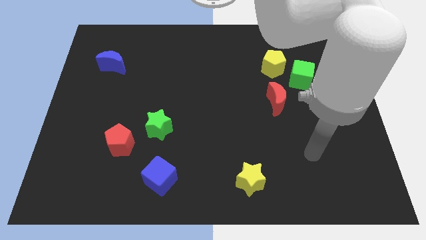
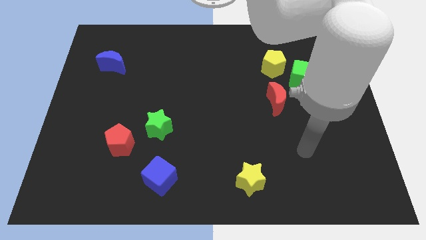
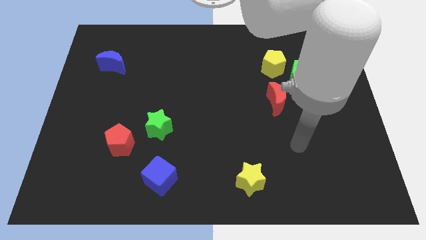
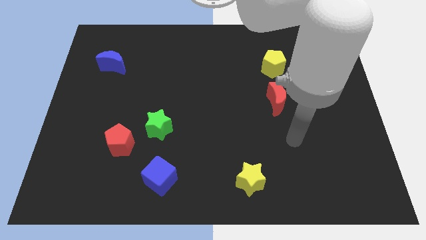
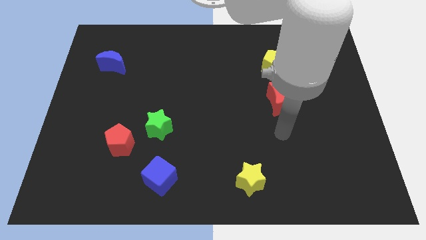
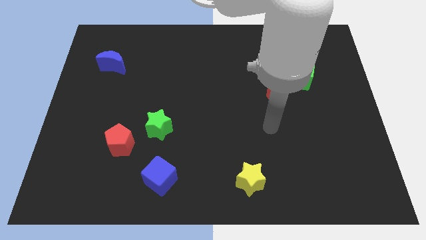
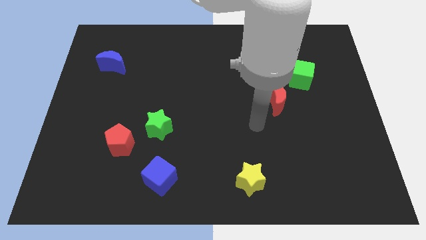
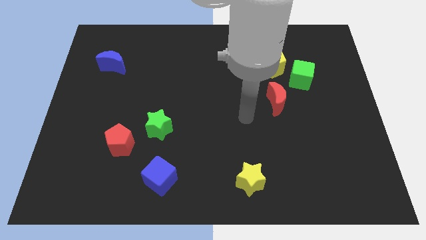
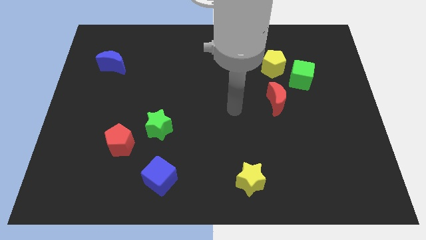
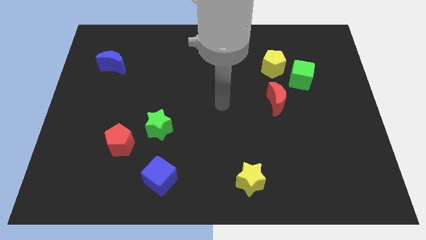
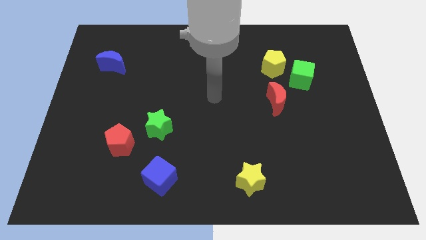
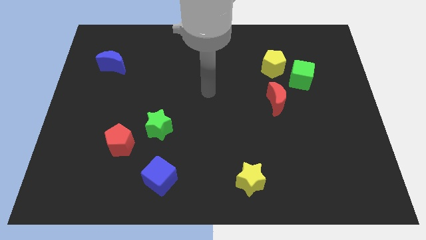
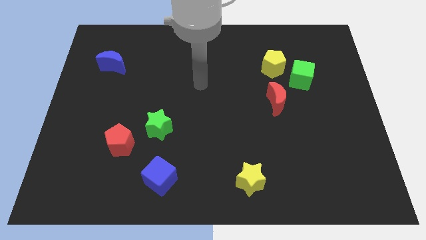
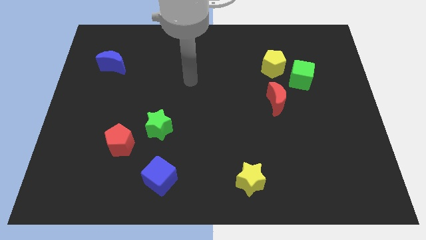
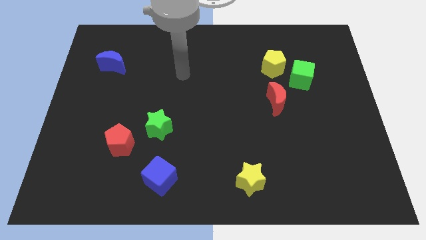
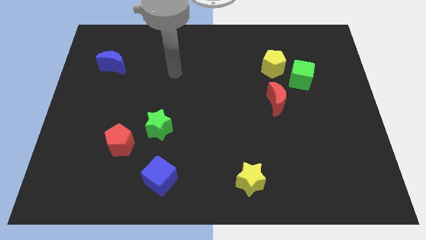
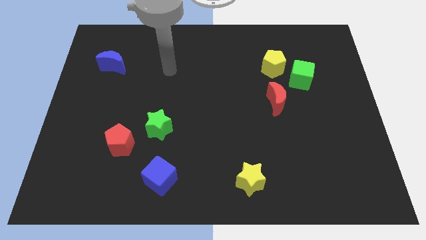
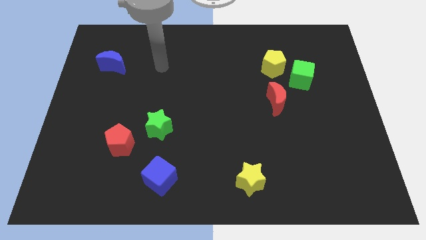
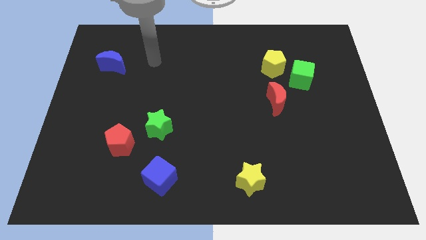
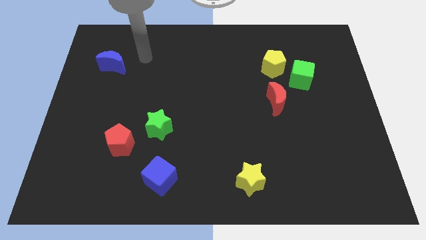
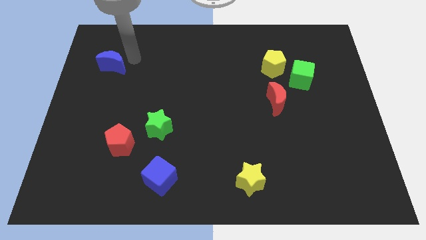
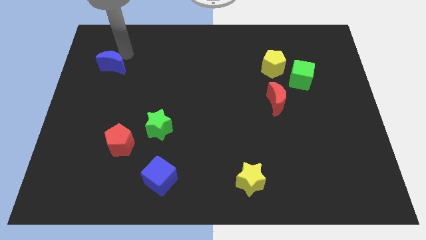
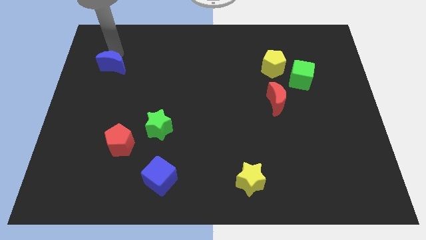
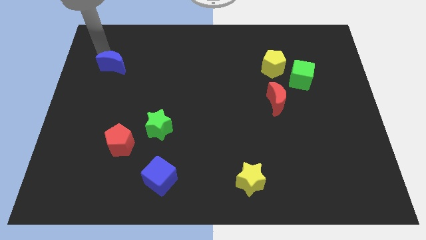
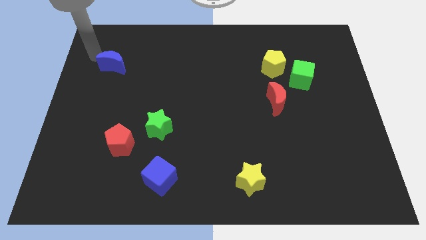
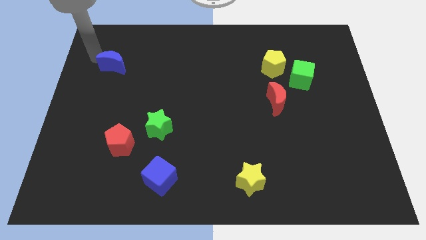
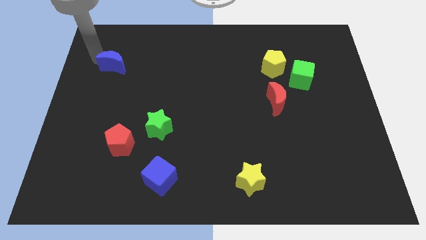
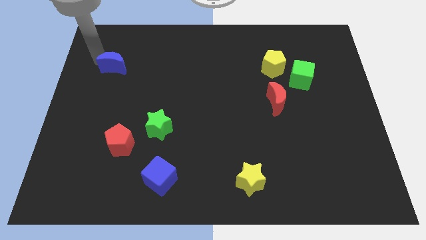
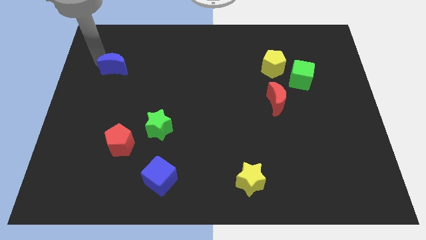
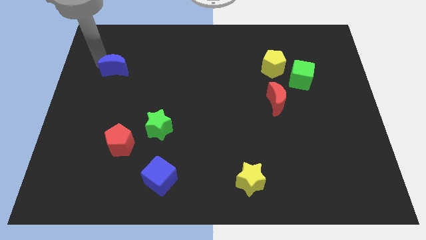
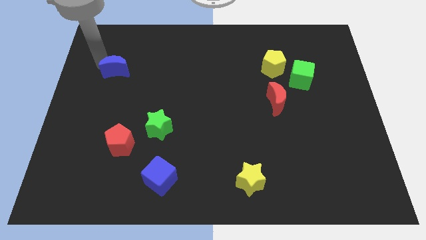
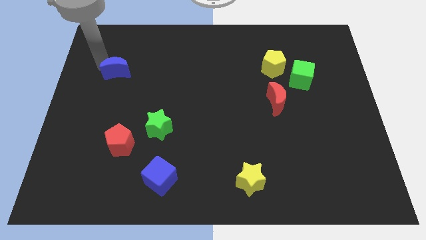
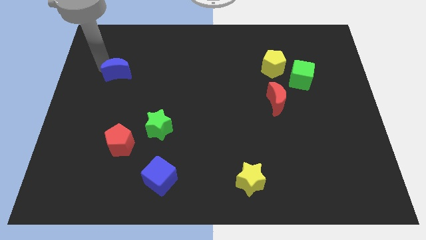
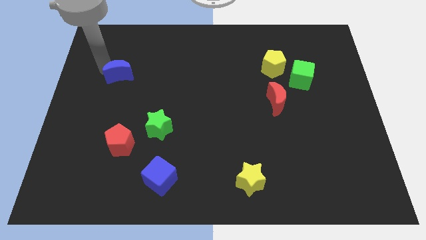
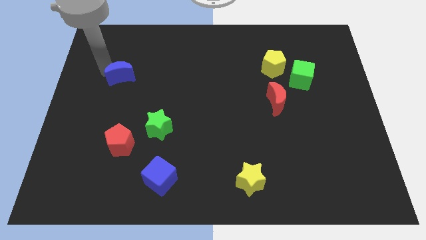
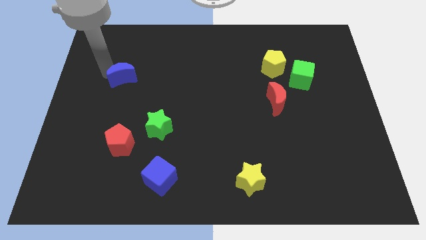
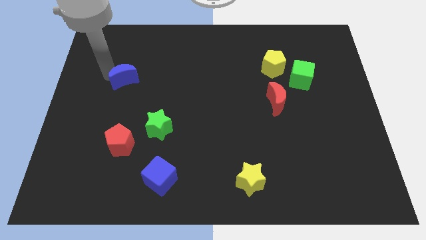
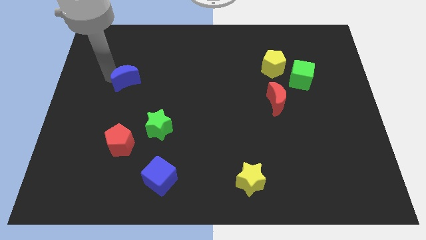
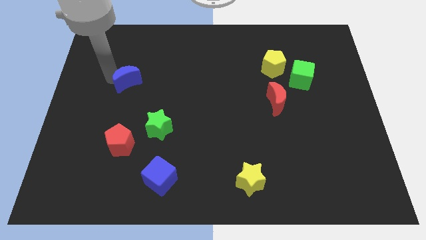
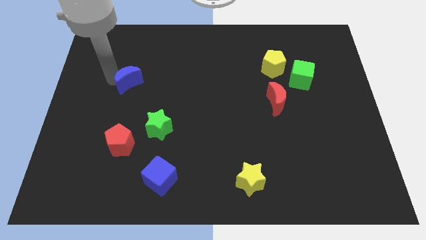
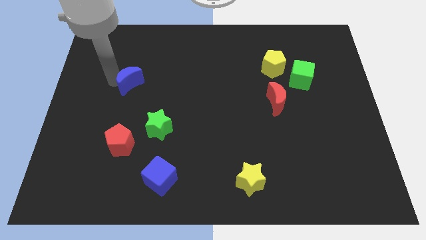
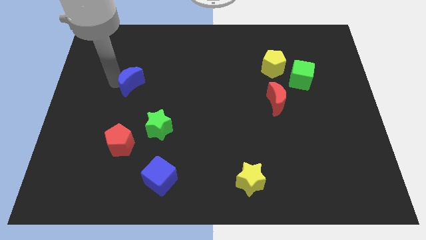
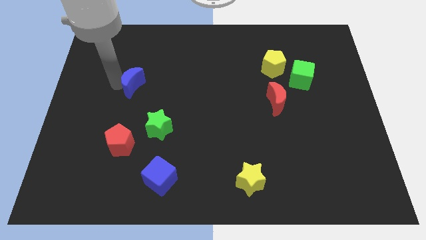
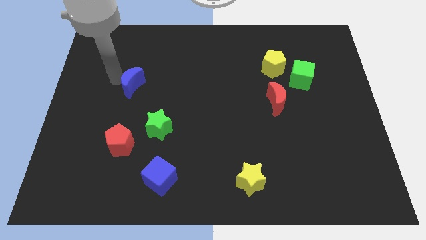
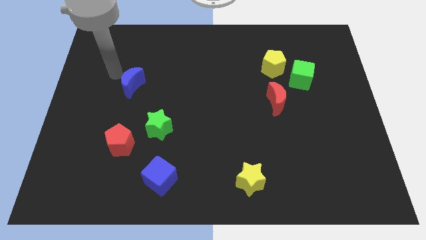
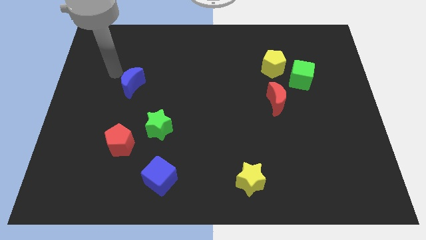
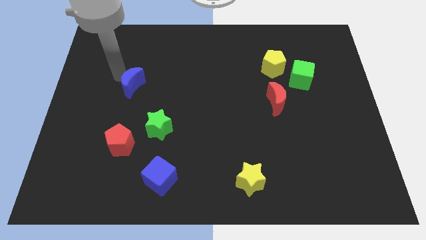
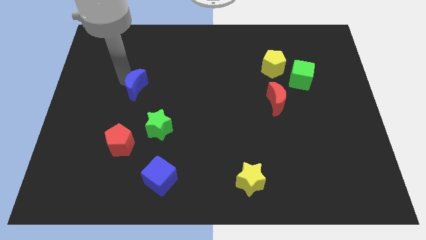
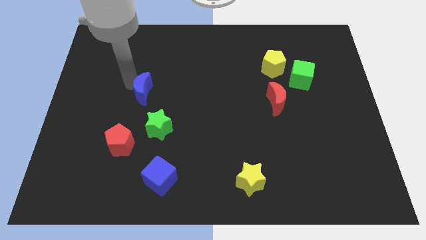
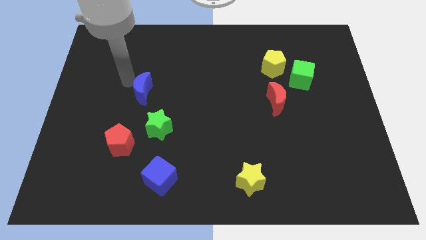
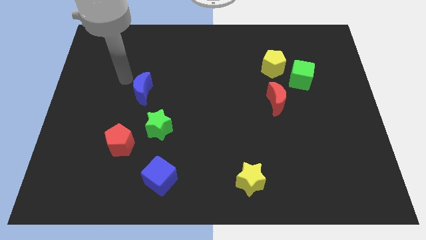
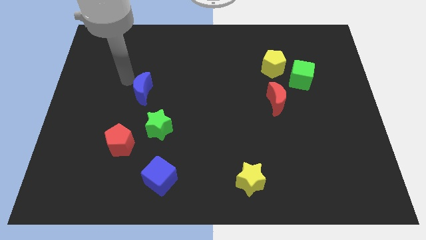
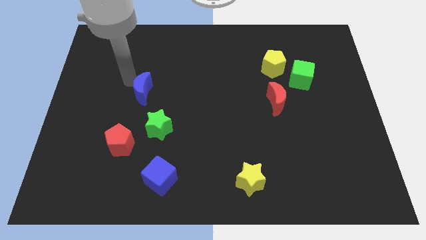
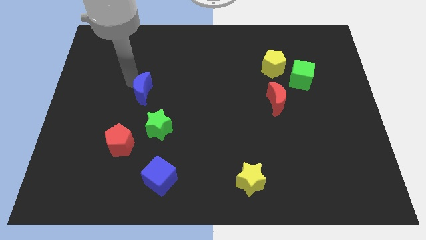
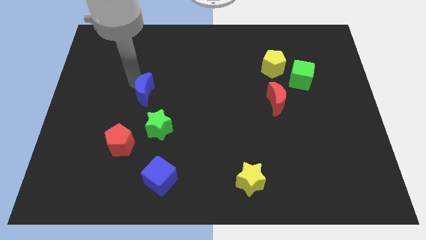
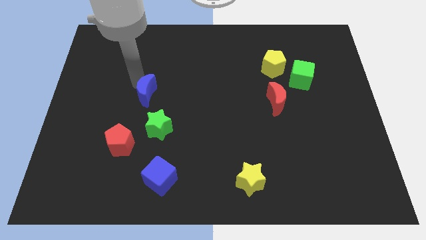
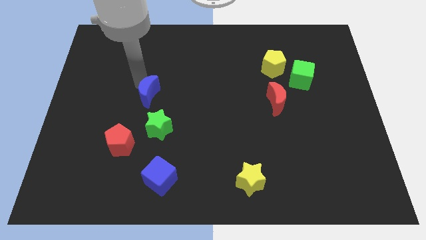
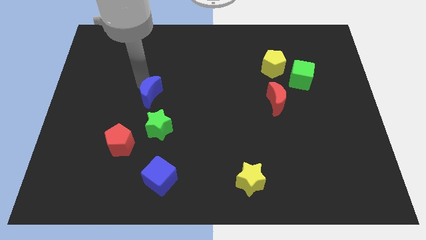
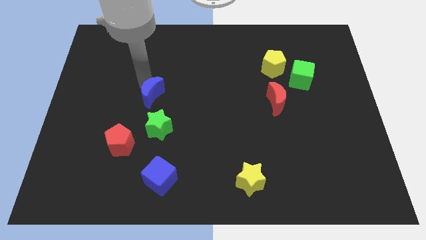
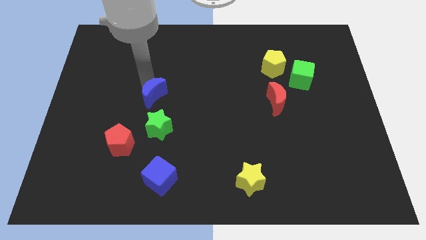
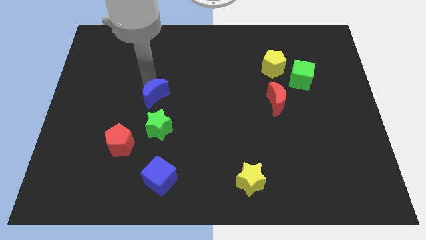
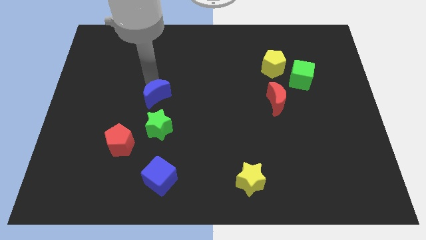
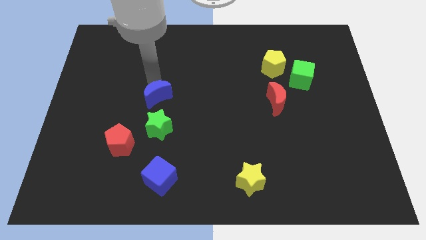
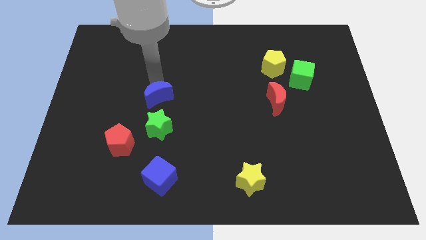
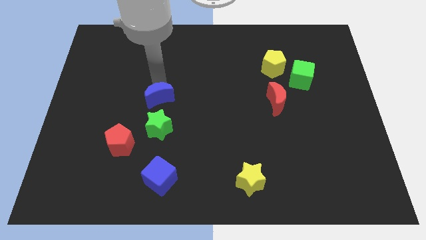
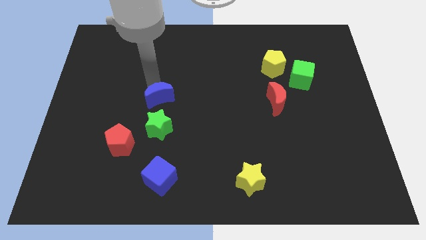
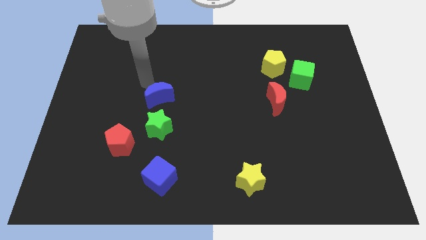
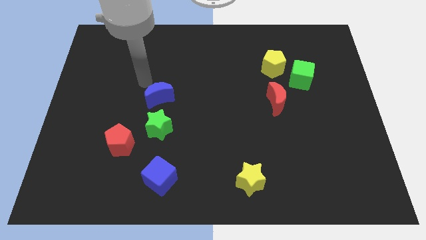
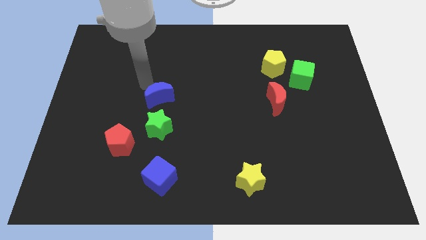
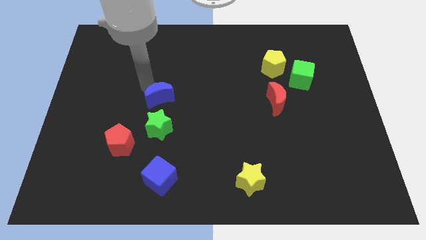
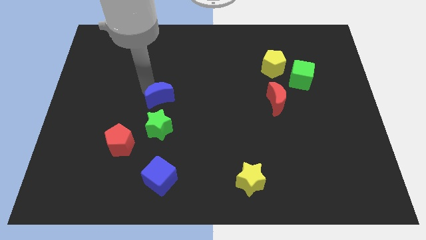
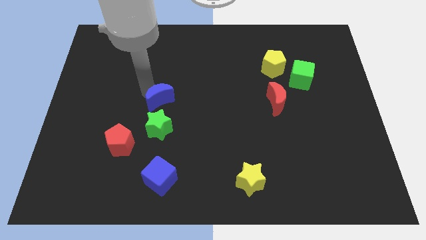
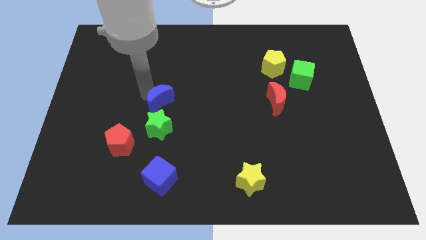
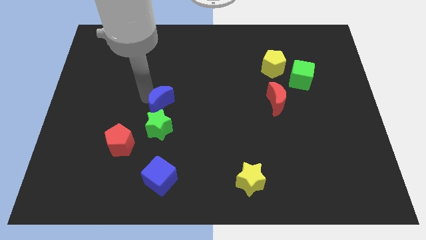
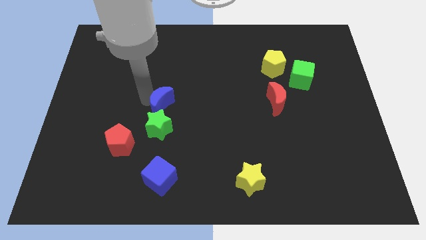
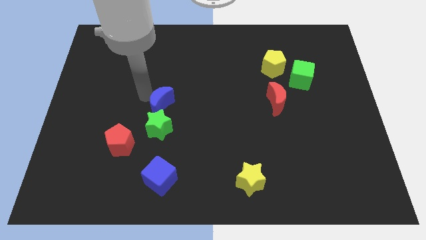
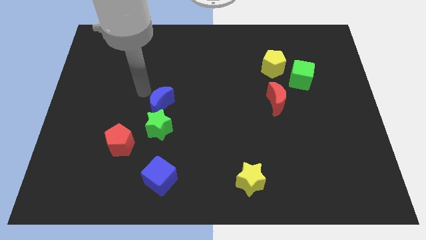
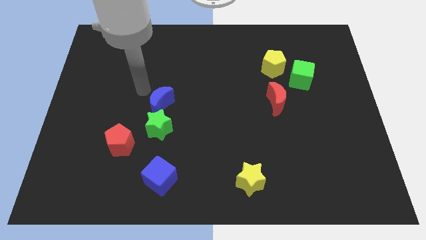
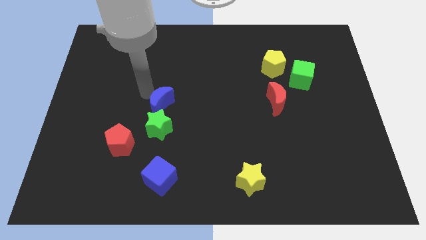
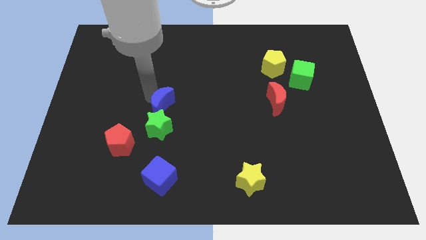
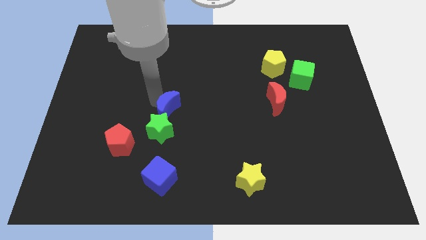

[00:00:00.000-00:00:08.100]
move the blue moon downwards and to the right
